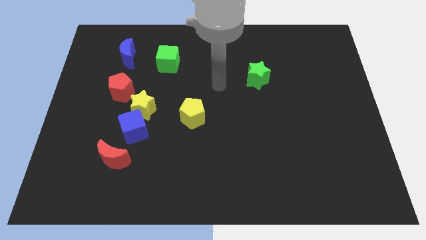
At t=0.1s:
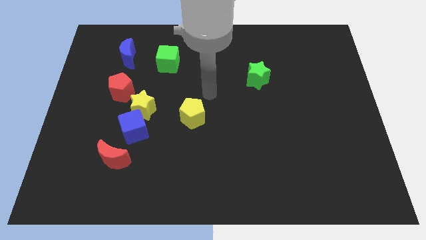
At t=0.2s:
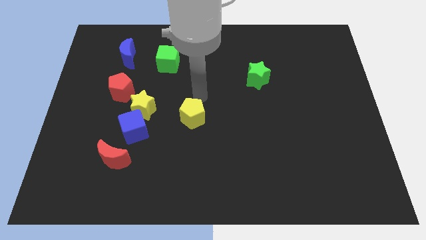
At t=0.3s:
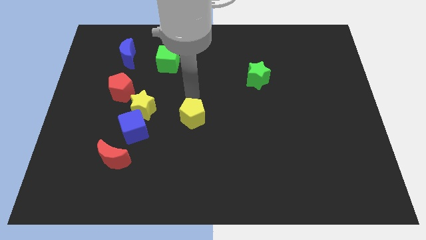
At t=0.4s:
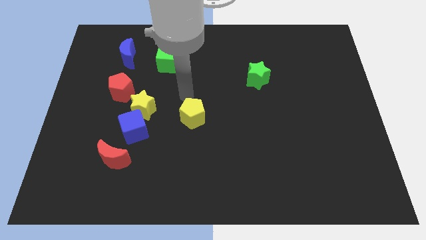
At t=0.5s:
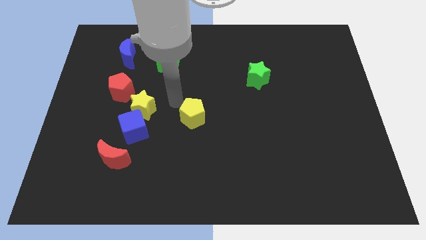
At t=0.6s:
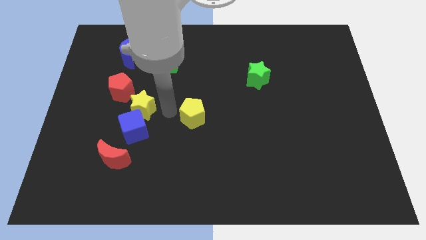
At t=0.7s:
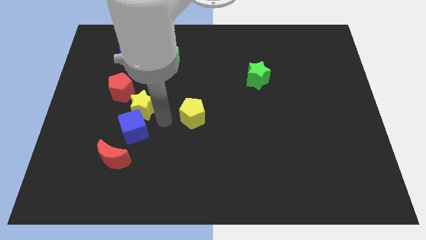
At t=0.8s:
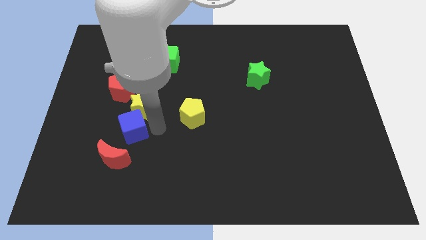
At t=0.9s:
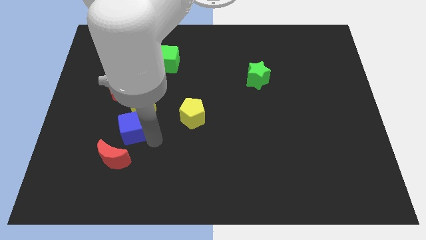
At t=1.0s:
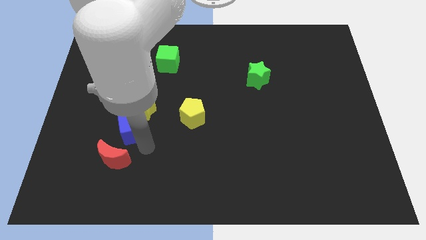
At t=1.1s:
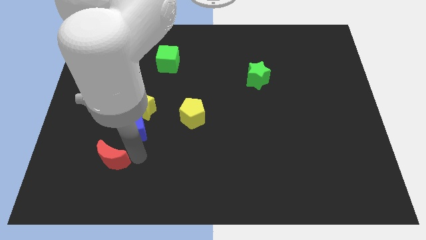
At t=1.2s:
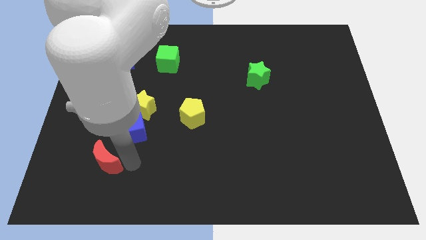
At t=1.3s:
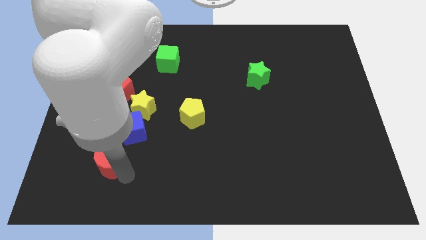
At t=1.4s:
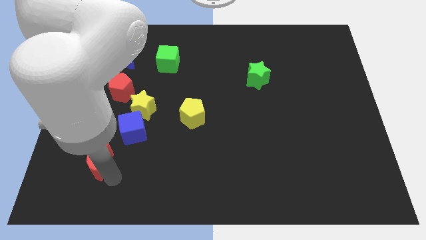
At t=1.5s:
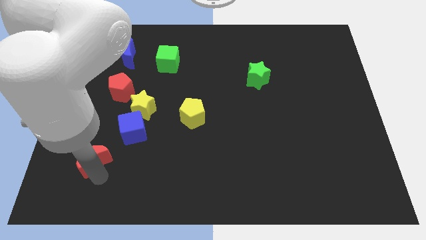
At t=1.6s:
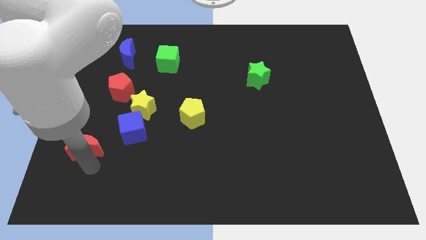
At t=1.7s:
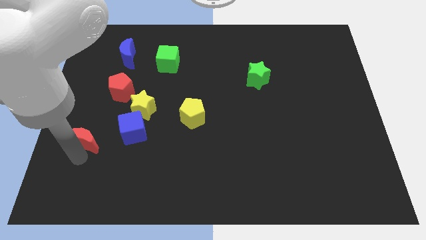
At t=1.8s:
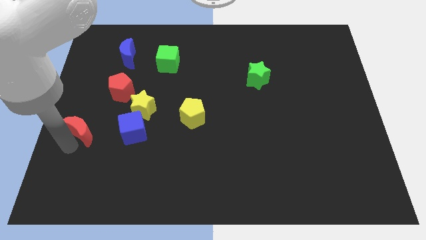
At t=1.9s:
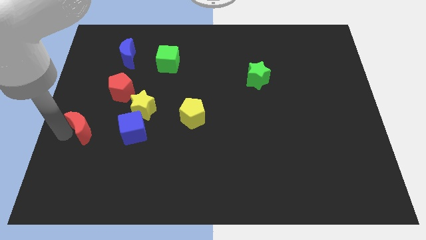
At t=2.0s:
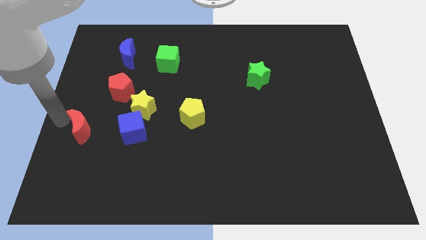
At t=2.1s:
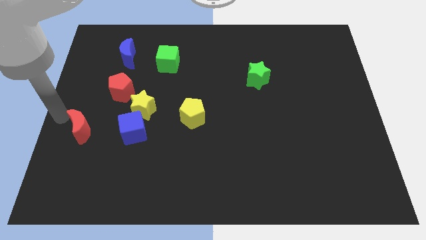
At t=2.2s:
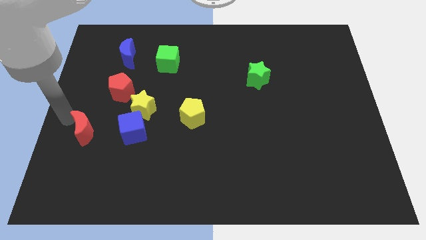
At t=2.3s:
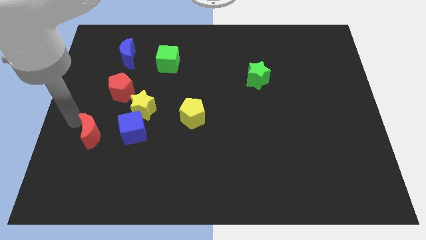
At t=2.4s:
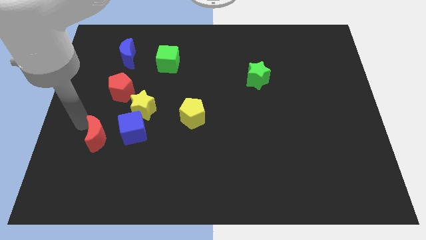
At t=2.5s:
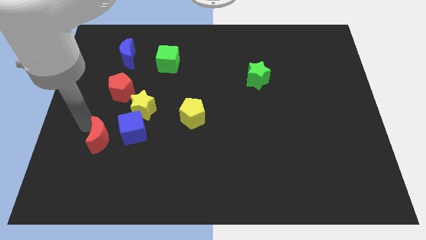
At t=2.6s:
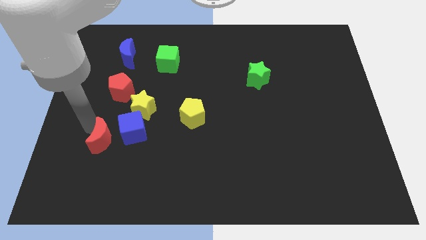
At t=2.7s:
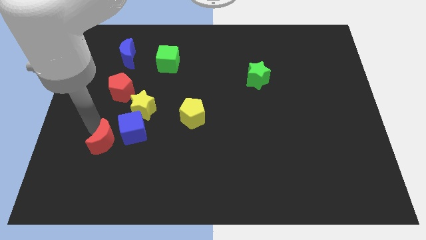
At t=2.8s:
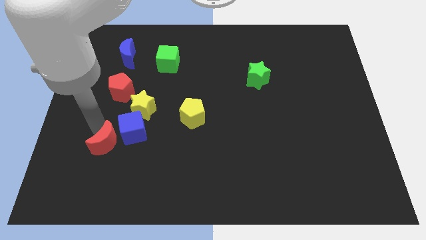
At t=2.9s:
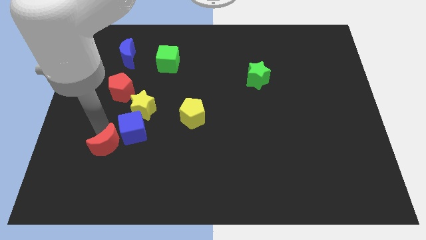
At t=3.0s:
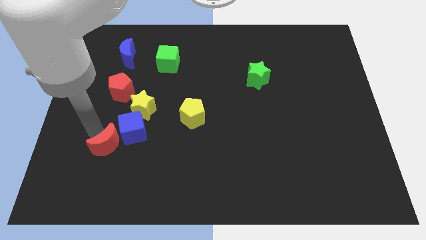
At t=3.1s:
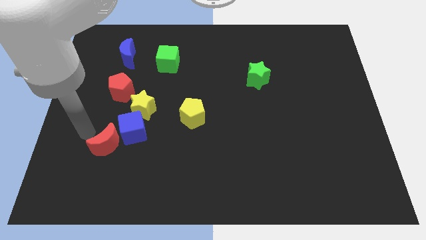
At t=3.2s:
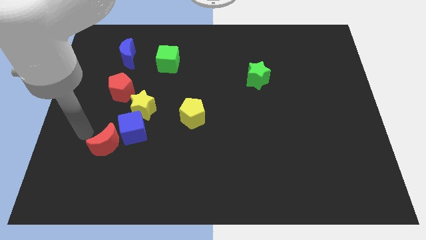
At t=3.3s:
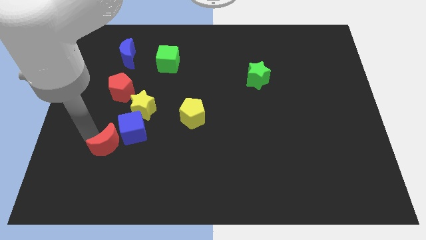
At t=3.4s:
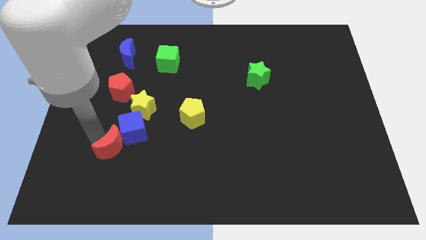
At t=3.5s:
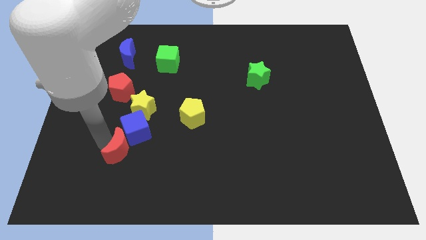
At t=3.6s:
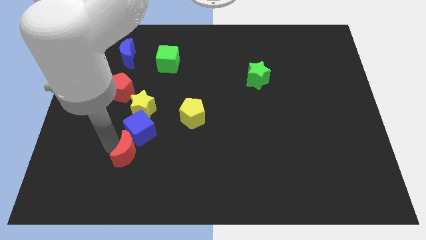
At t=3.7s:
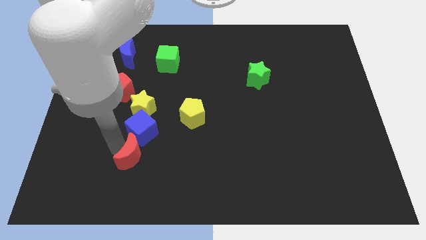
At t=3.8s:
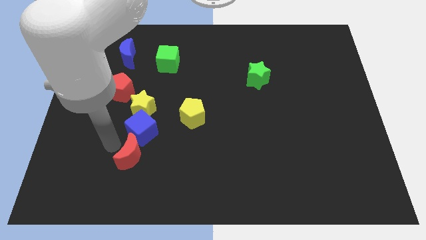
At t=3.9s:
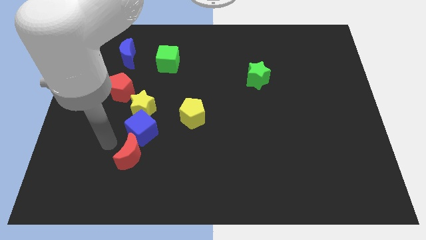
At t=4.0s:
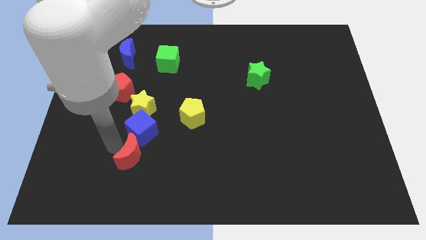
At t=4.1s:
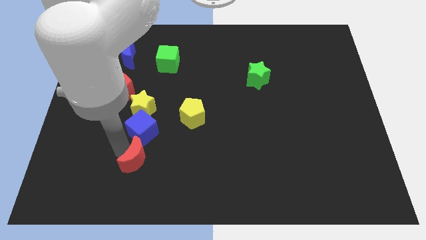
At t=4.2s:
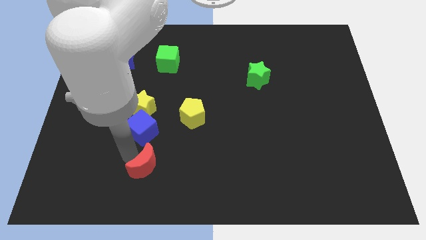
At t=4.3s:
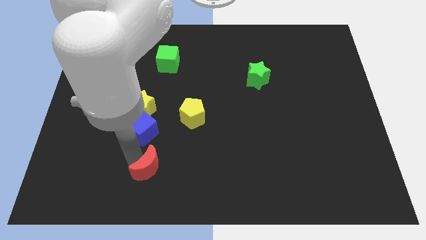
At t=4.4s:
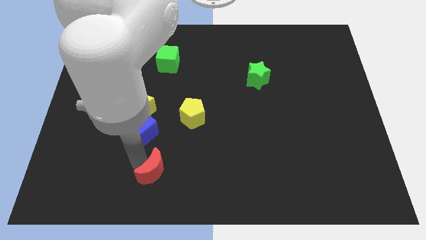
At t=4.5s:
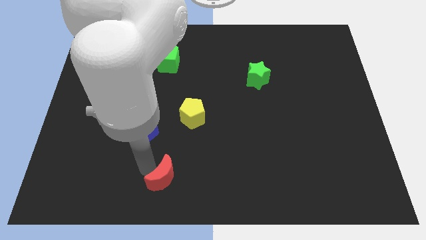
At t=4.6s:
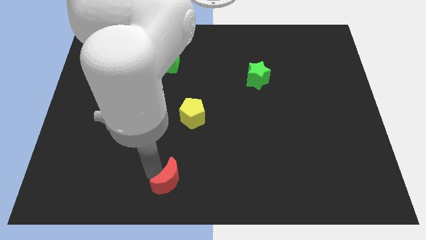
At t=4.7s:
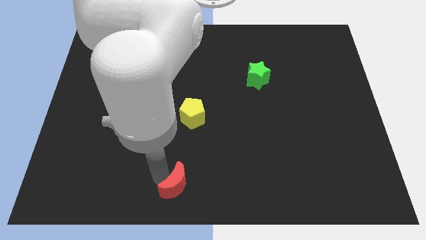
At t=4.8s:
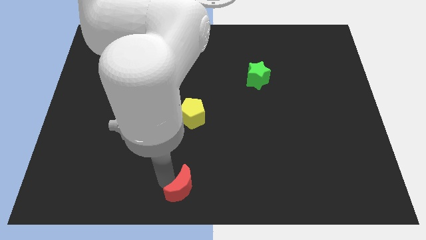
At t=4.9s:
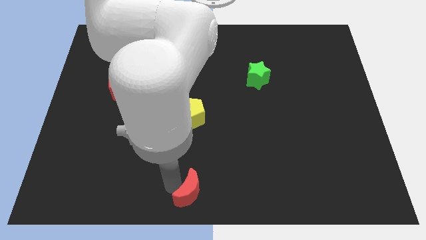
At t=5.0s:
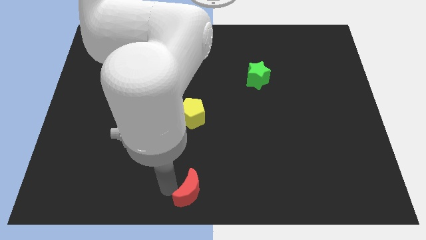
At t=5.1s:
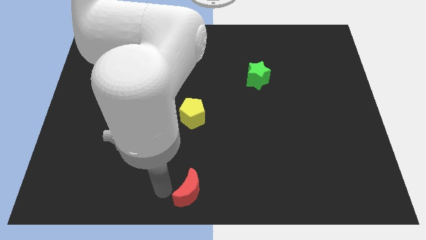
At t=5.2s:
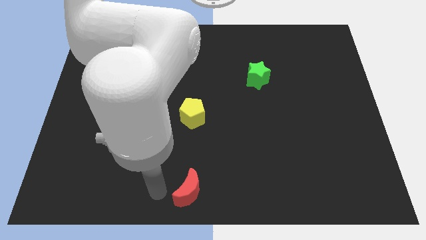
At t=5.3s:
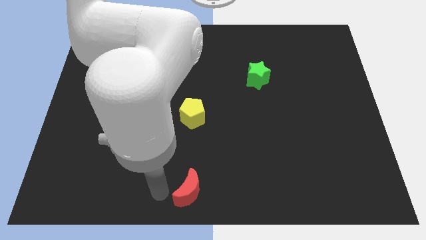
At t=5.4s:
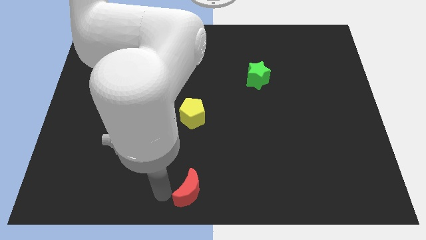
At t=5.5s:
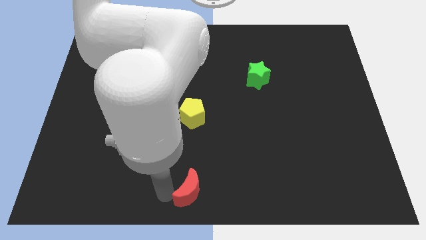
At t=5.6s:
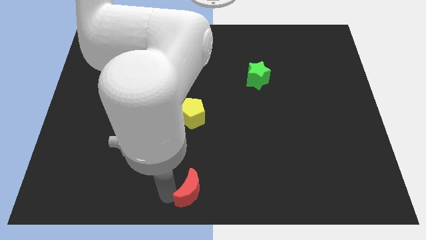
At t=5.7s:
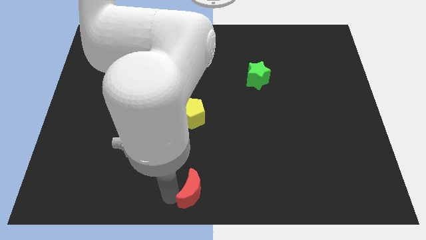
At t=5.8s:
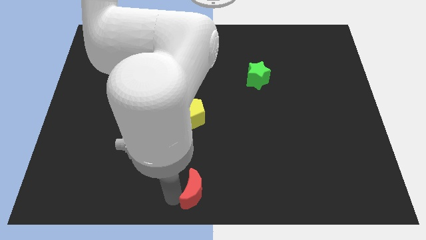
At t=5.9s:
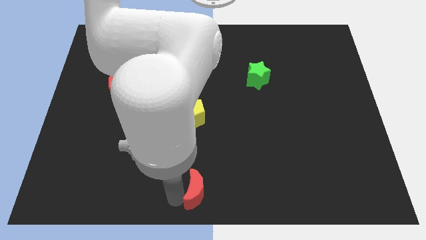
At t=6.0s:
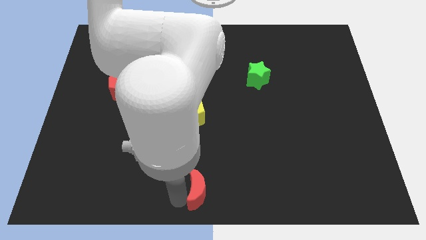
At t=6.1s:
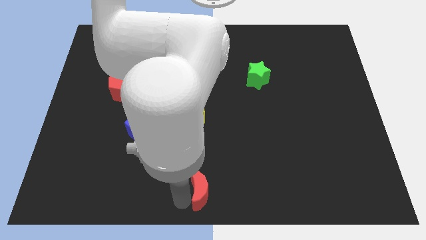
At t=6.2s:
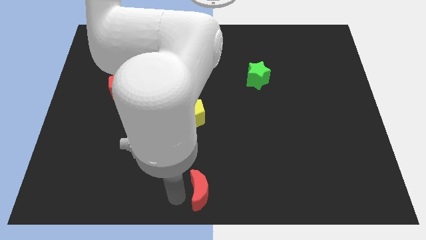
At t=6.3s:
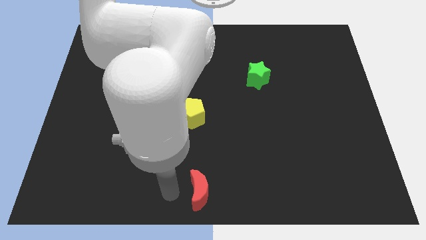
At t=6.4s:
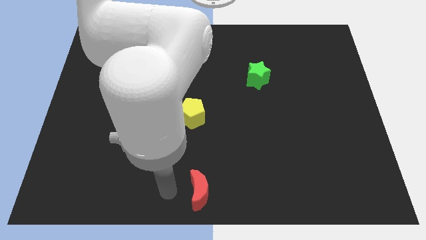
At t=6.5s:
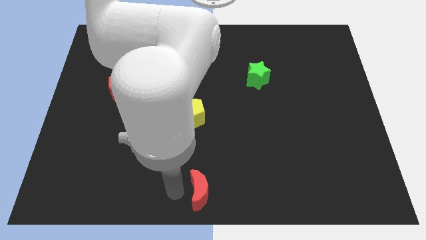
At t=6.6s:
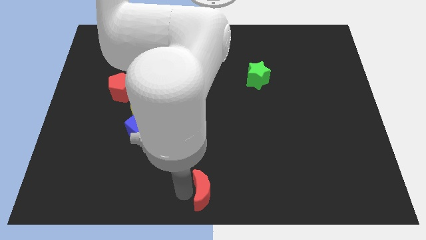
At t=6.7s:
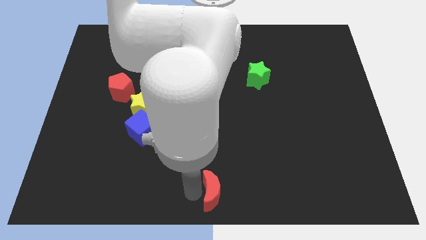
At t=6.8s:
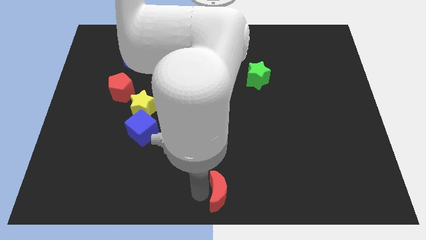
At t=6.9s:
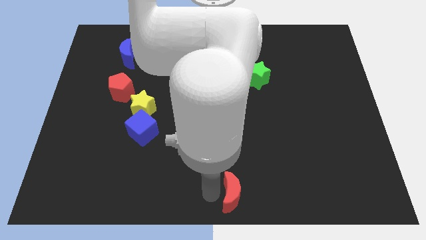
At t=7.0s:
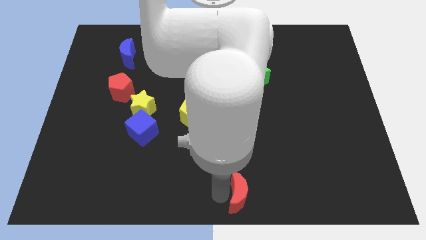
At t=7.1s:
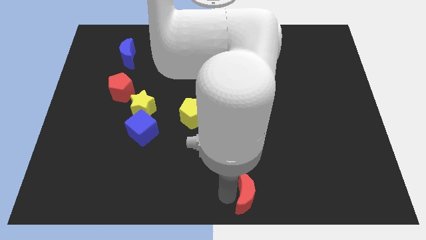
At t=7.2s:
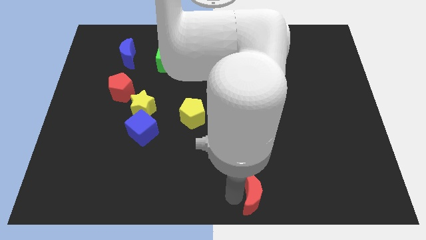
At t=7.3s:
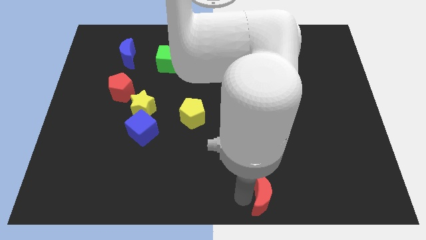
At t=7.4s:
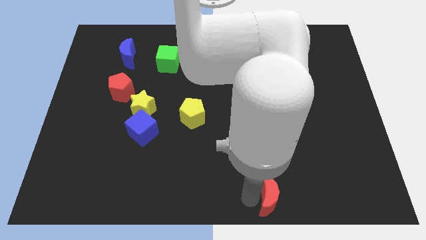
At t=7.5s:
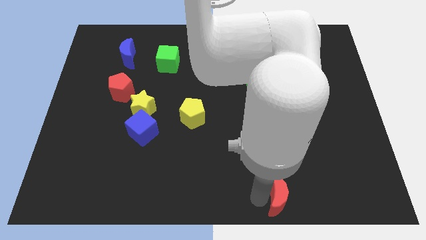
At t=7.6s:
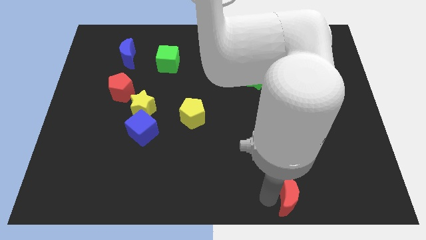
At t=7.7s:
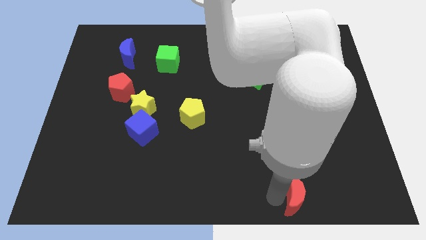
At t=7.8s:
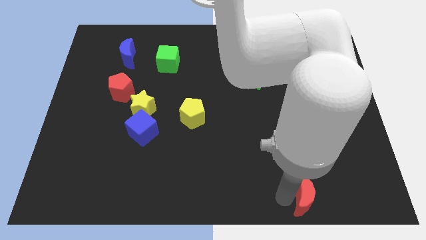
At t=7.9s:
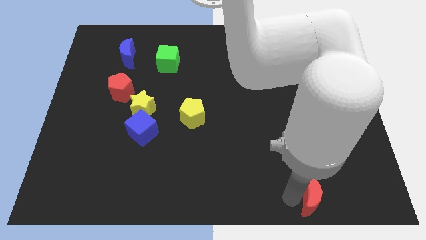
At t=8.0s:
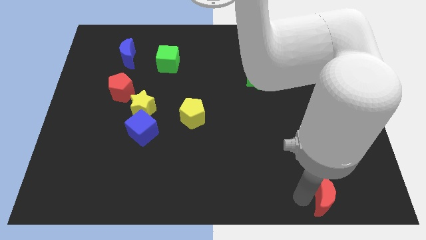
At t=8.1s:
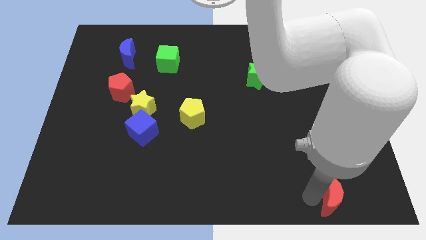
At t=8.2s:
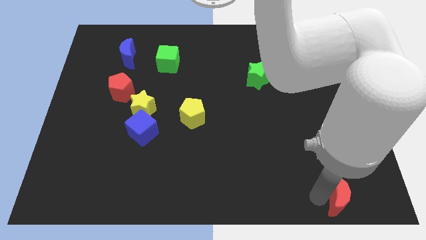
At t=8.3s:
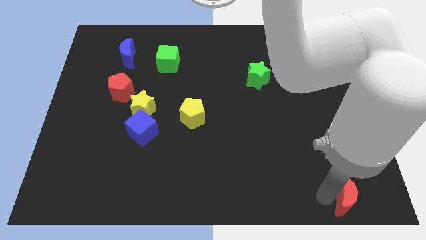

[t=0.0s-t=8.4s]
move the red moon to the bottom right
